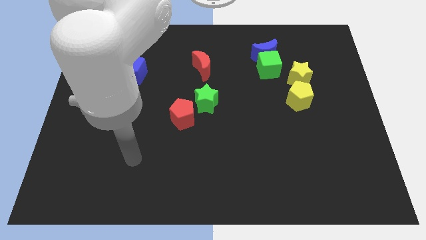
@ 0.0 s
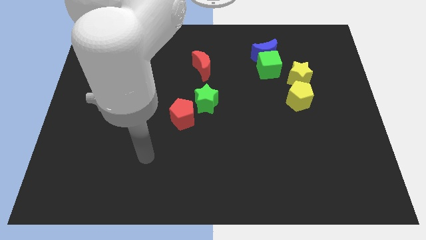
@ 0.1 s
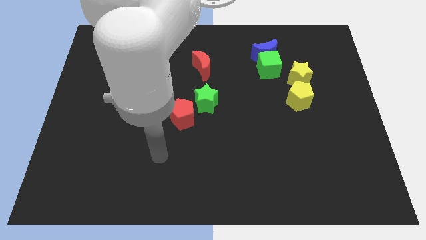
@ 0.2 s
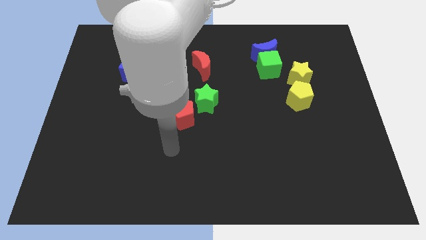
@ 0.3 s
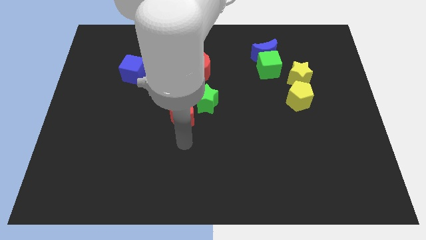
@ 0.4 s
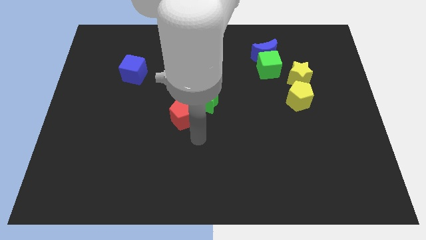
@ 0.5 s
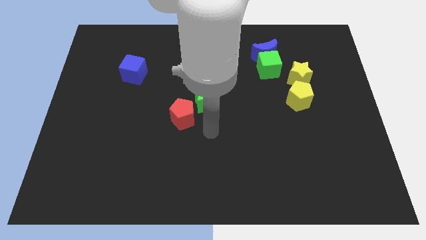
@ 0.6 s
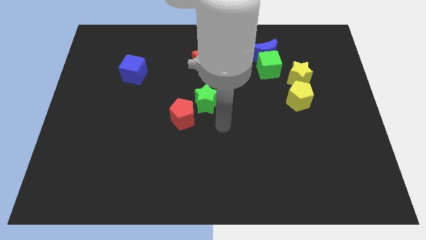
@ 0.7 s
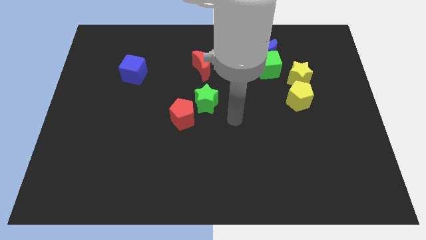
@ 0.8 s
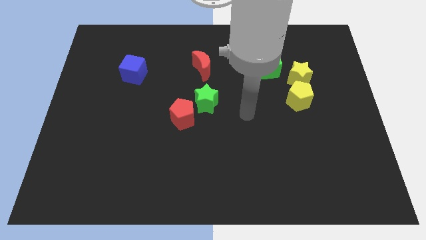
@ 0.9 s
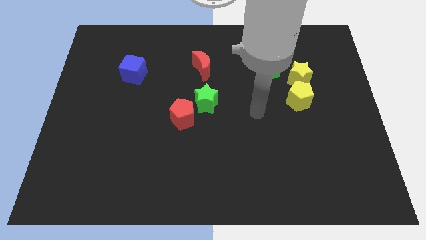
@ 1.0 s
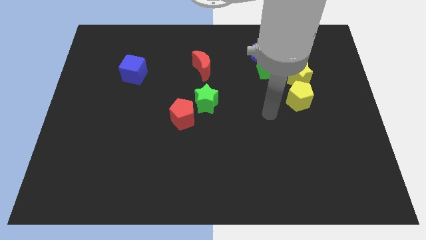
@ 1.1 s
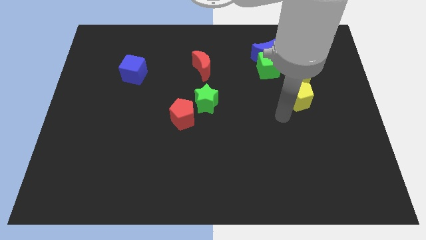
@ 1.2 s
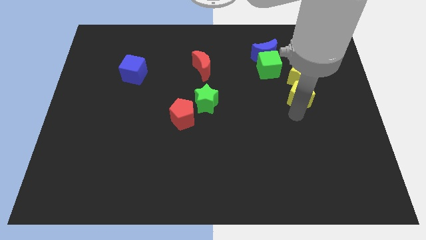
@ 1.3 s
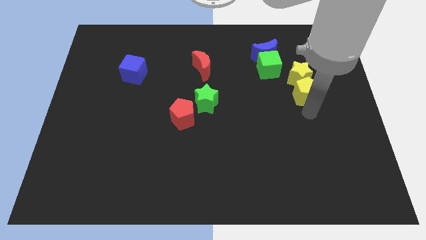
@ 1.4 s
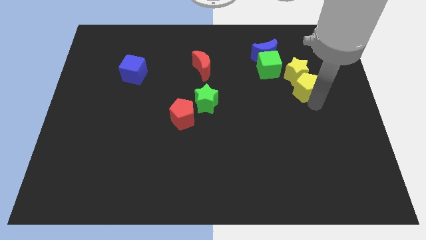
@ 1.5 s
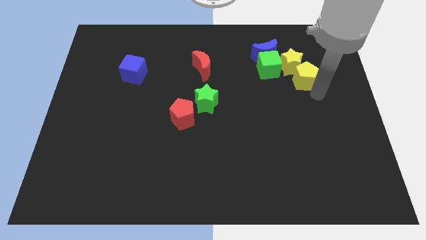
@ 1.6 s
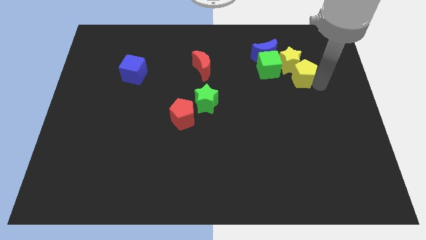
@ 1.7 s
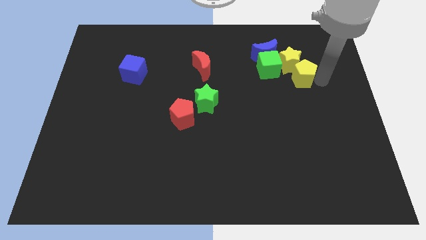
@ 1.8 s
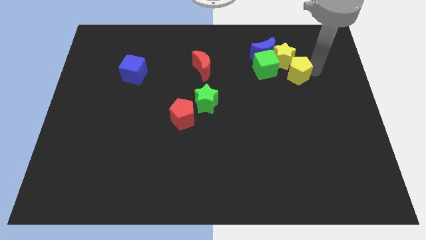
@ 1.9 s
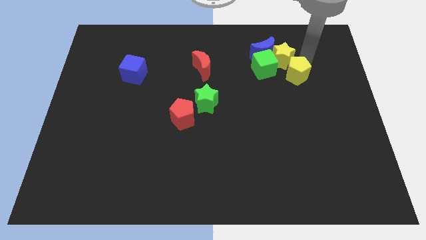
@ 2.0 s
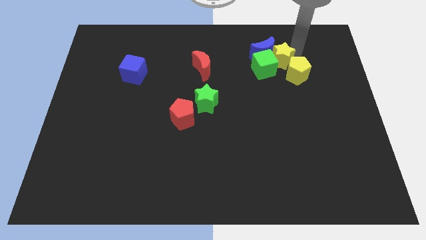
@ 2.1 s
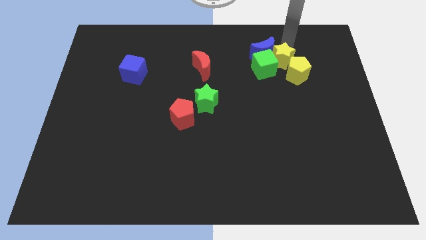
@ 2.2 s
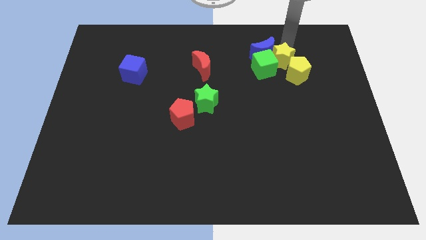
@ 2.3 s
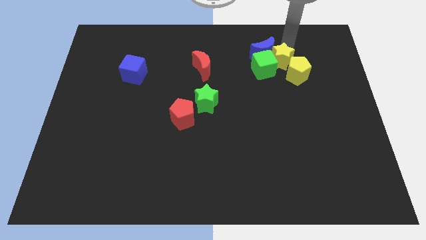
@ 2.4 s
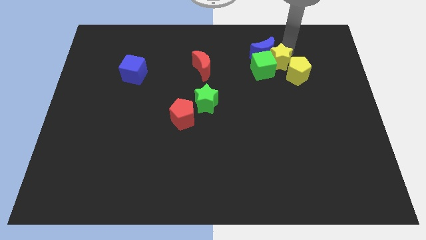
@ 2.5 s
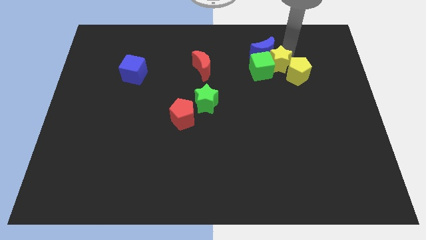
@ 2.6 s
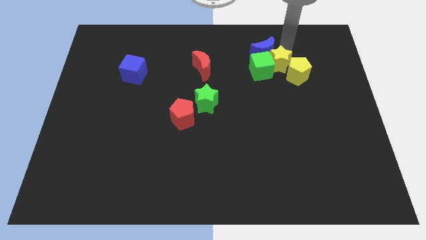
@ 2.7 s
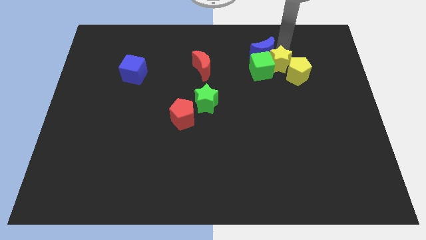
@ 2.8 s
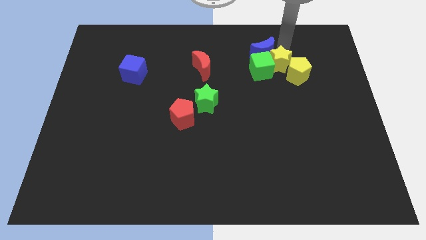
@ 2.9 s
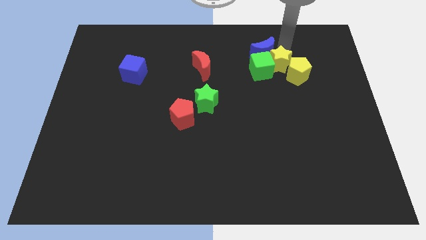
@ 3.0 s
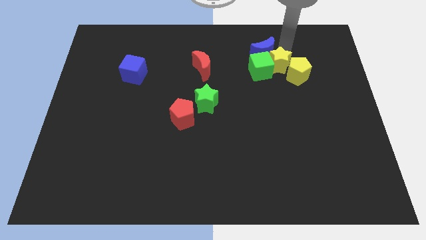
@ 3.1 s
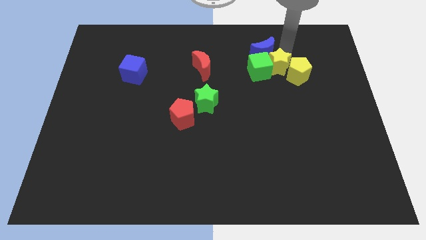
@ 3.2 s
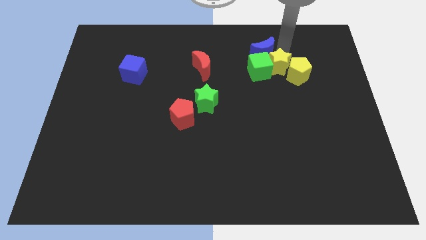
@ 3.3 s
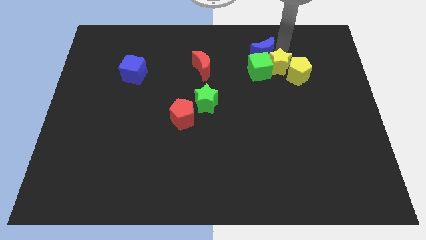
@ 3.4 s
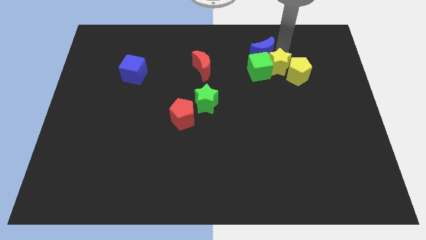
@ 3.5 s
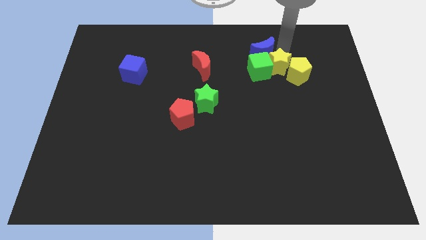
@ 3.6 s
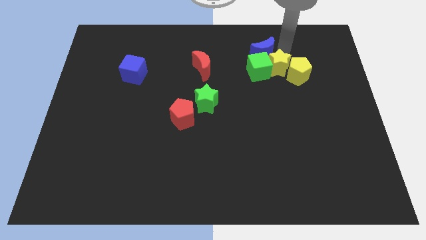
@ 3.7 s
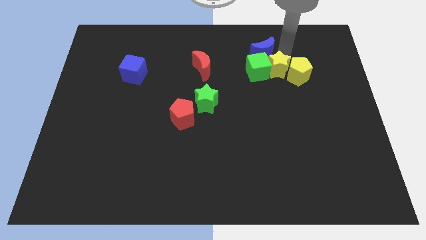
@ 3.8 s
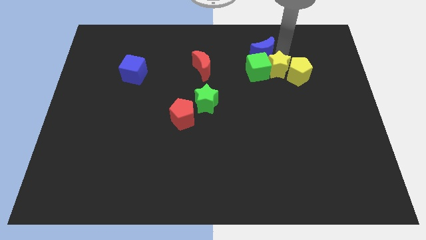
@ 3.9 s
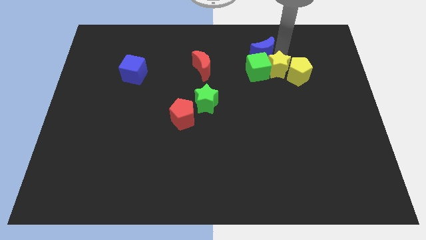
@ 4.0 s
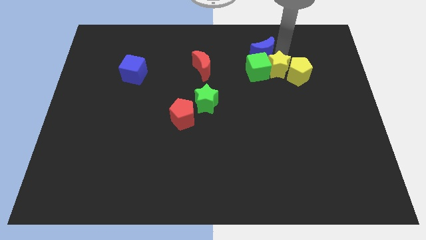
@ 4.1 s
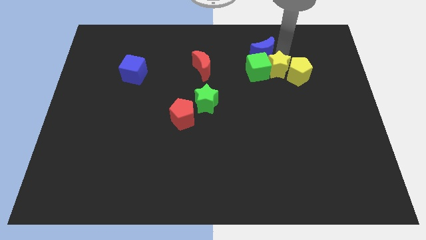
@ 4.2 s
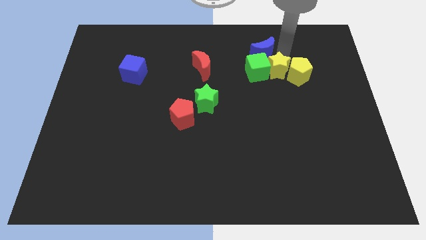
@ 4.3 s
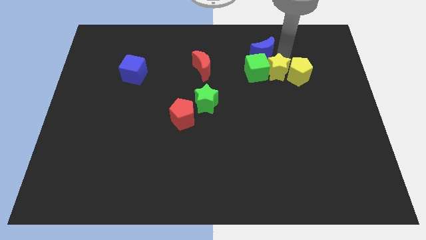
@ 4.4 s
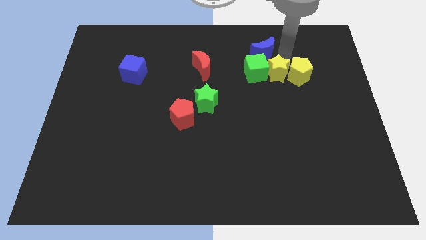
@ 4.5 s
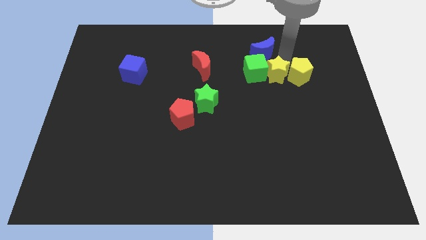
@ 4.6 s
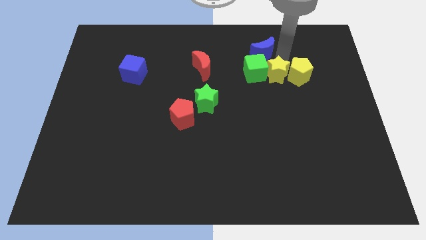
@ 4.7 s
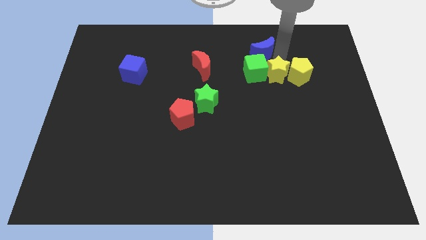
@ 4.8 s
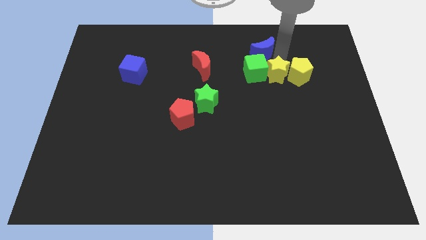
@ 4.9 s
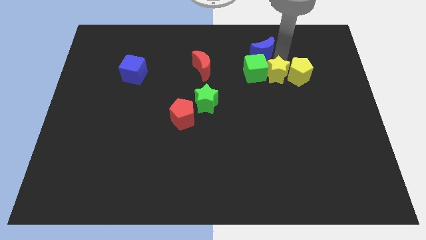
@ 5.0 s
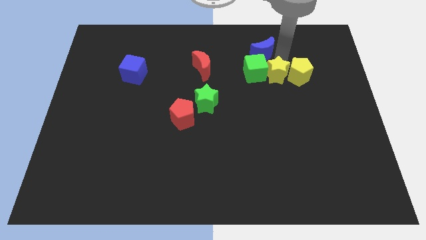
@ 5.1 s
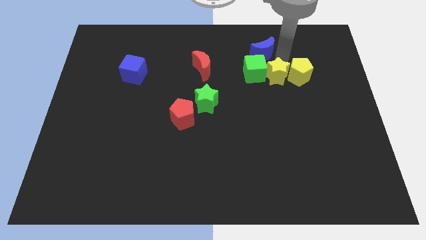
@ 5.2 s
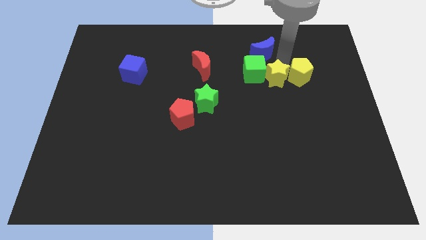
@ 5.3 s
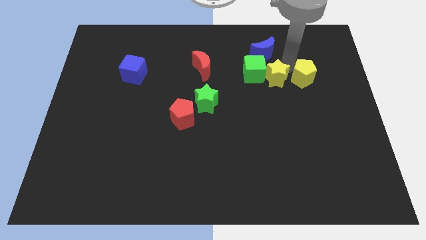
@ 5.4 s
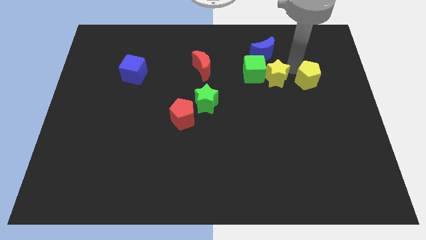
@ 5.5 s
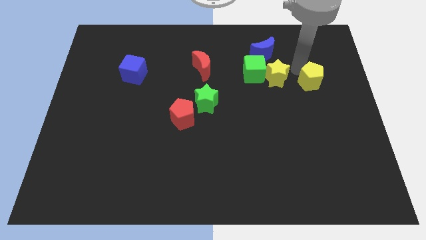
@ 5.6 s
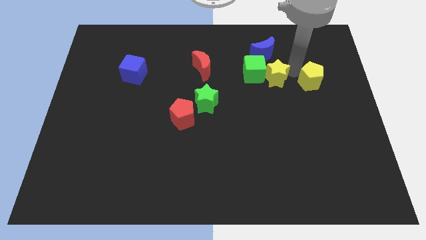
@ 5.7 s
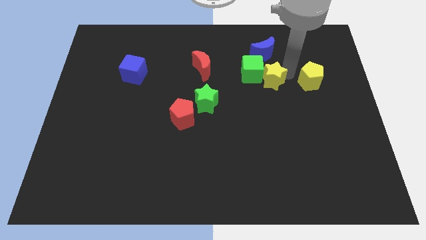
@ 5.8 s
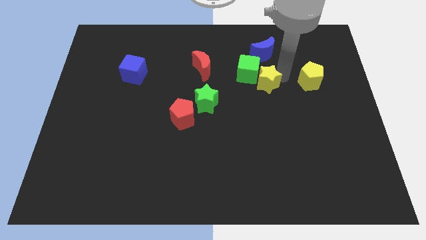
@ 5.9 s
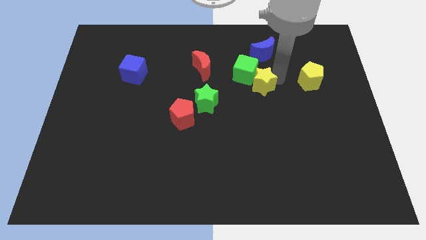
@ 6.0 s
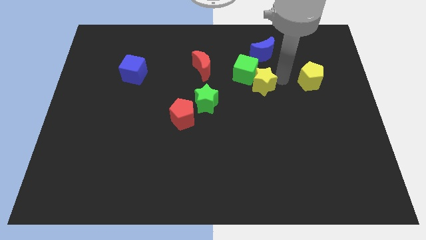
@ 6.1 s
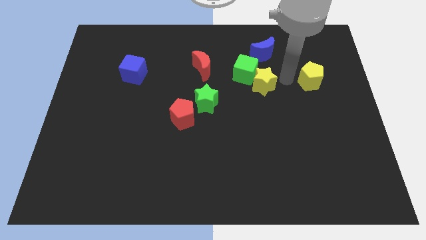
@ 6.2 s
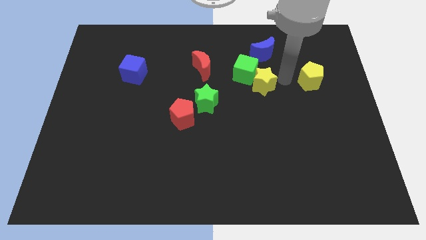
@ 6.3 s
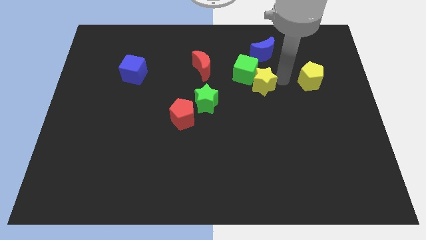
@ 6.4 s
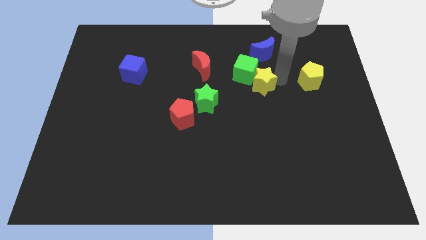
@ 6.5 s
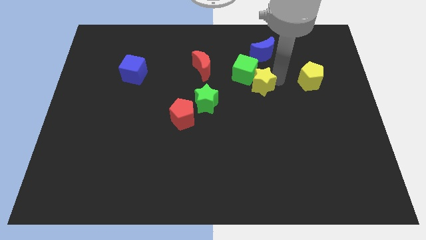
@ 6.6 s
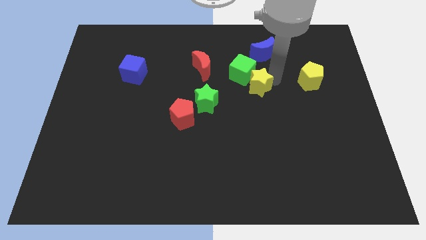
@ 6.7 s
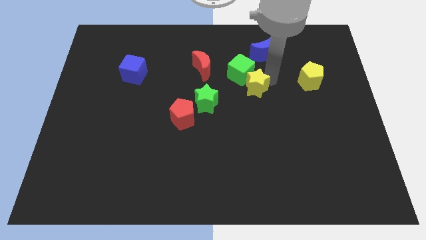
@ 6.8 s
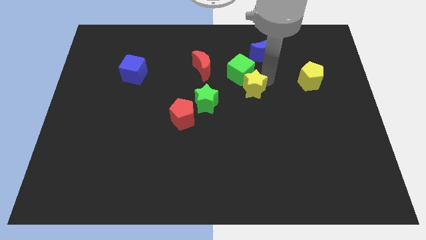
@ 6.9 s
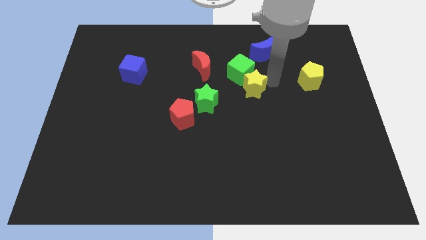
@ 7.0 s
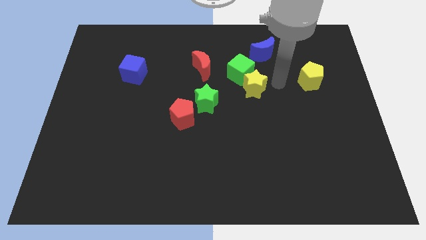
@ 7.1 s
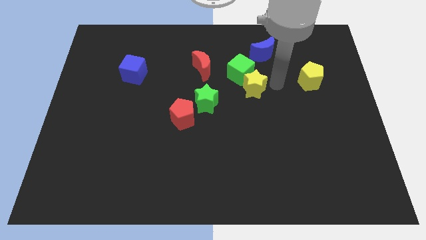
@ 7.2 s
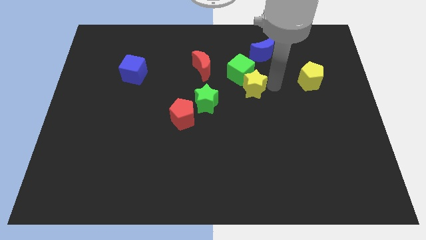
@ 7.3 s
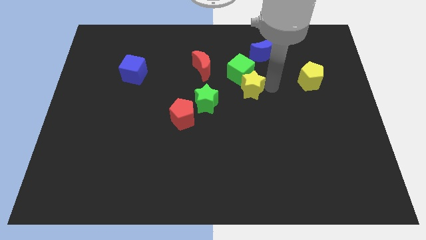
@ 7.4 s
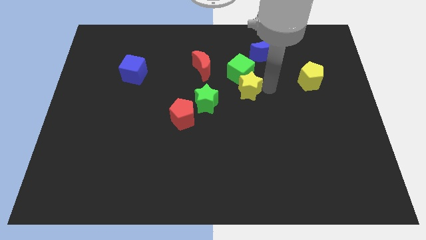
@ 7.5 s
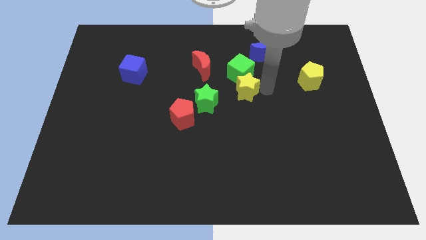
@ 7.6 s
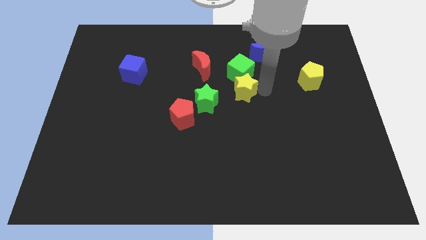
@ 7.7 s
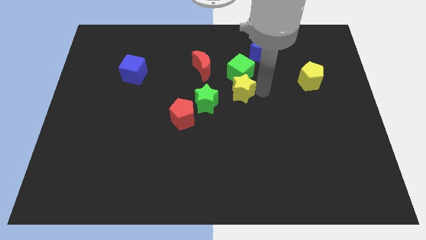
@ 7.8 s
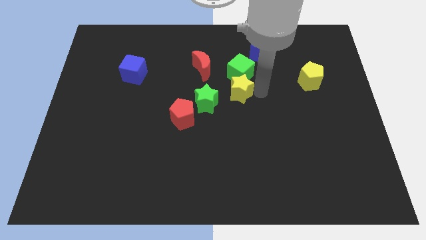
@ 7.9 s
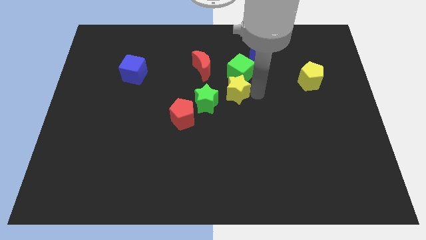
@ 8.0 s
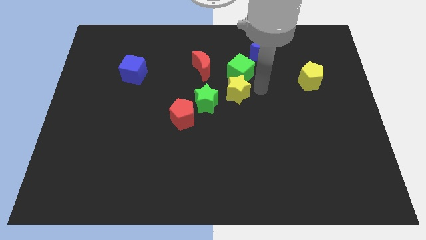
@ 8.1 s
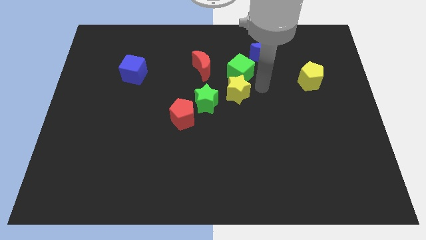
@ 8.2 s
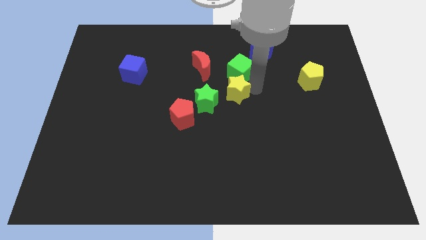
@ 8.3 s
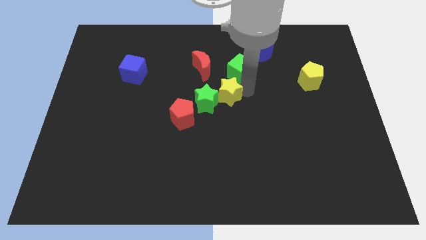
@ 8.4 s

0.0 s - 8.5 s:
move the yellow star to the green star
